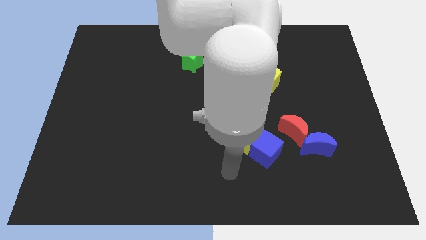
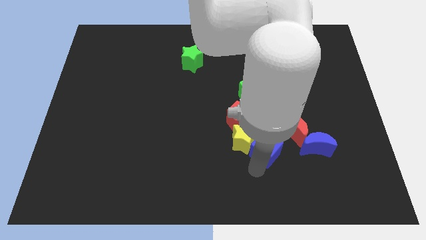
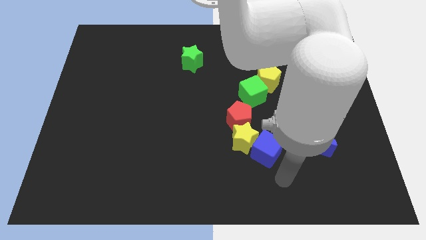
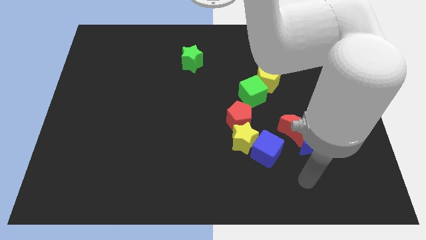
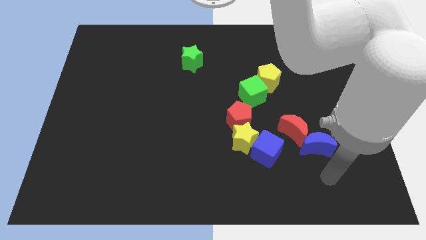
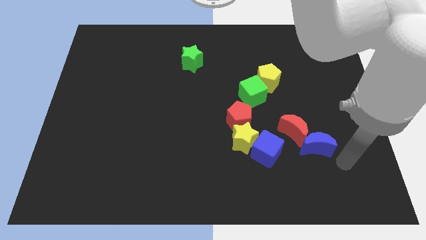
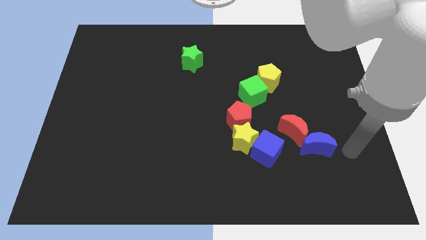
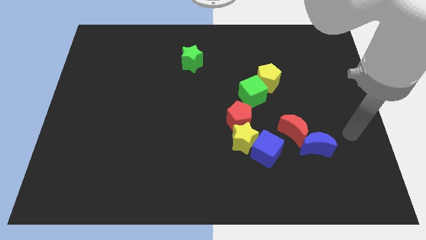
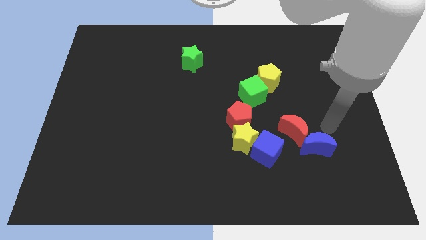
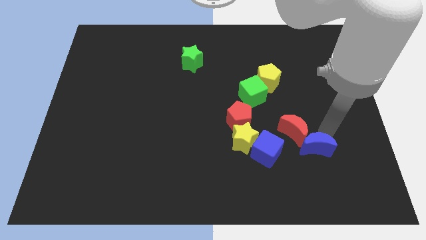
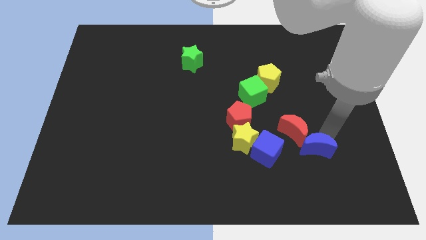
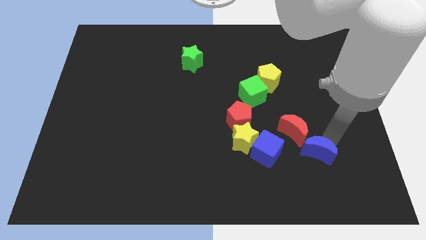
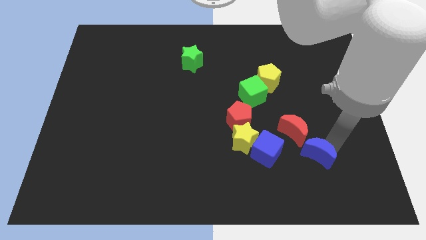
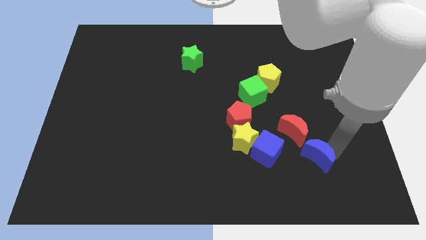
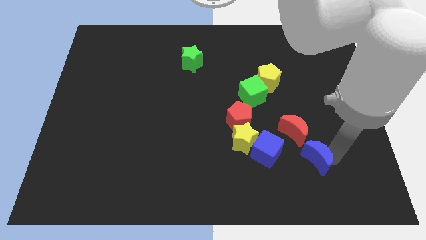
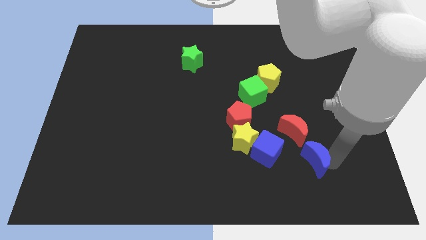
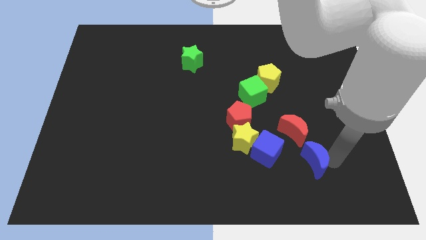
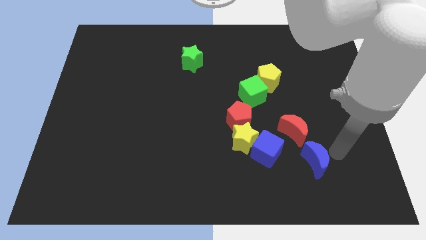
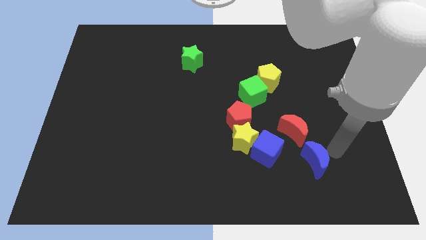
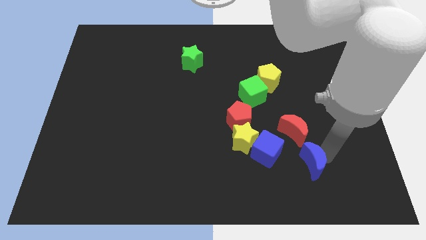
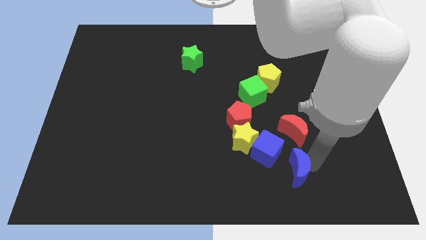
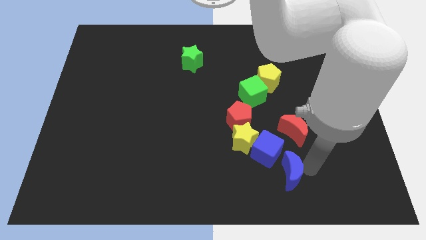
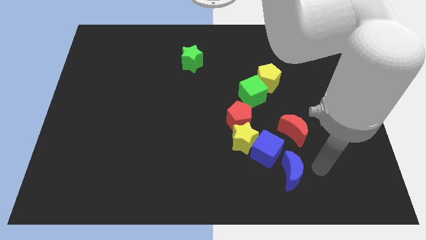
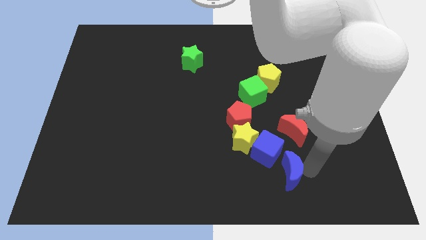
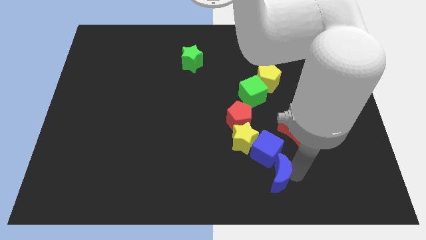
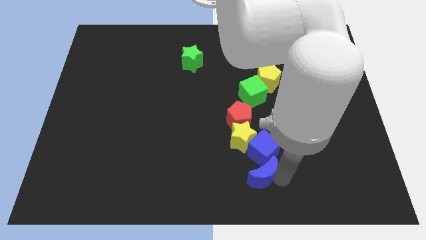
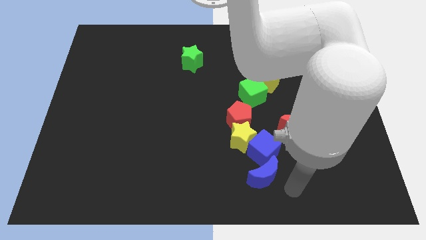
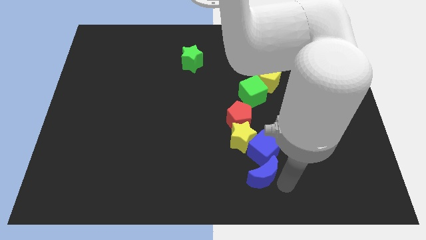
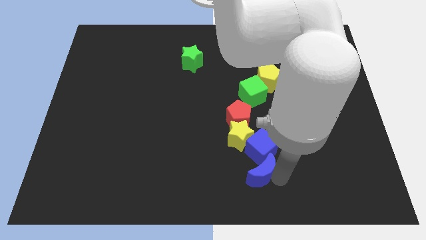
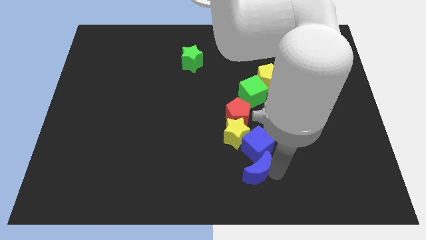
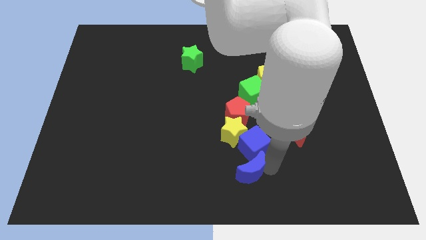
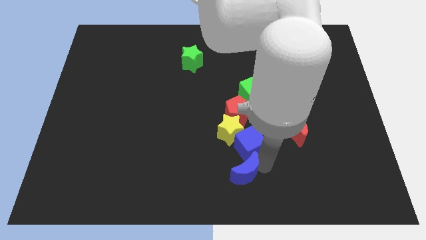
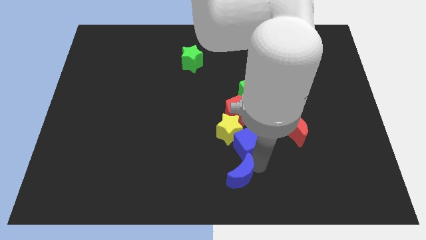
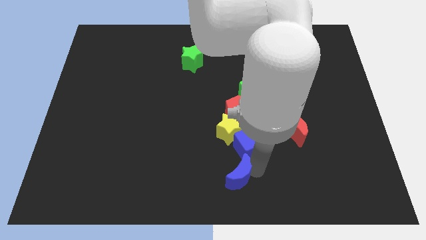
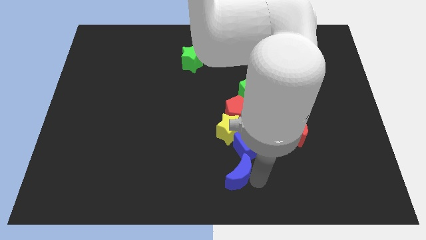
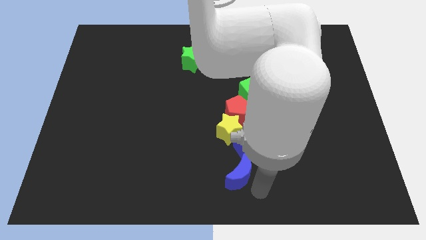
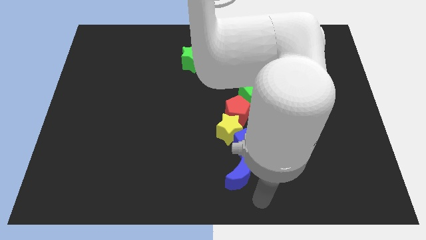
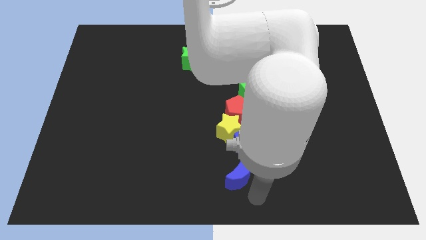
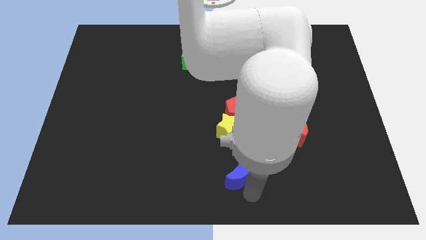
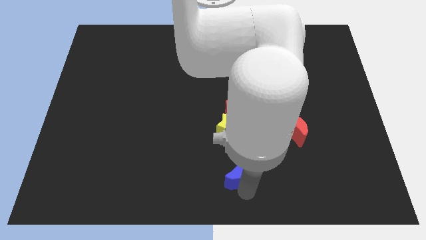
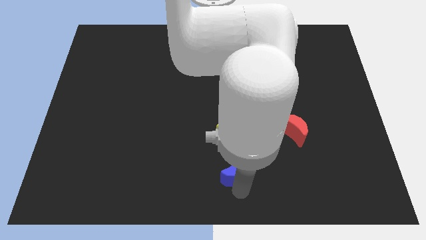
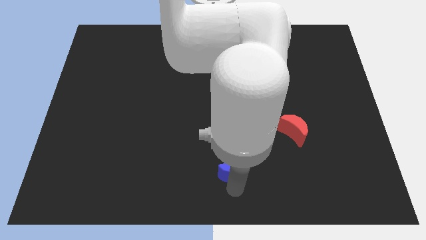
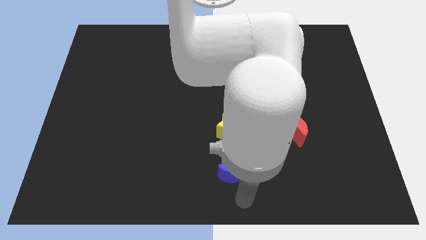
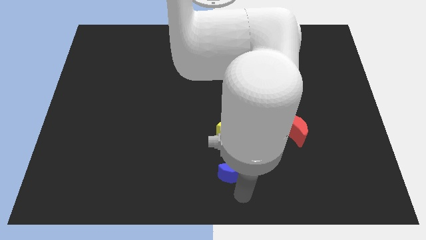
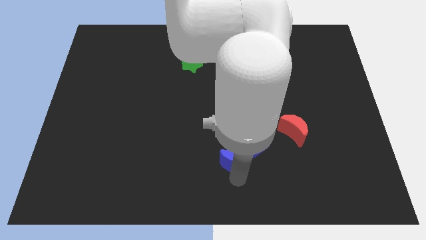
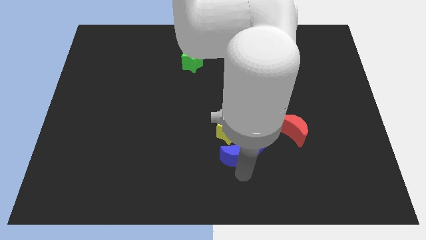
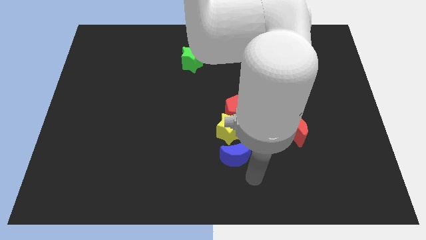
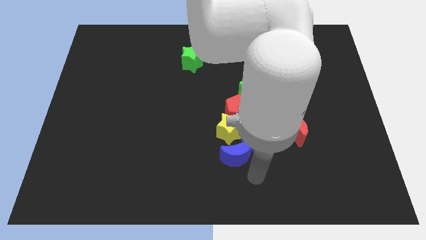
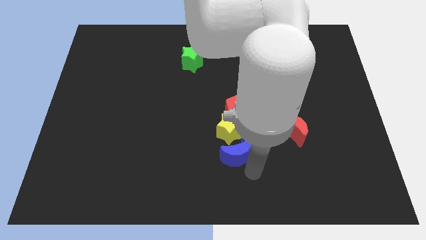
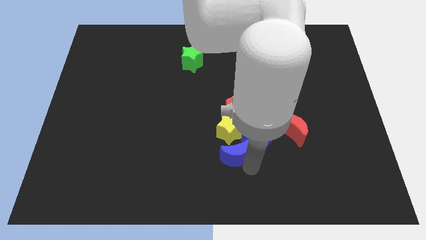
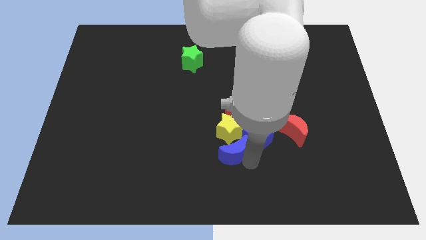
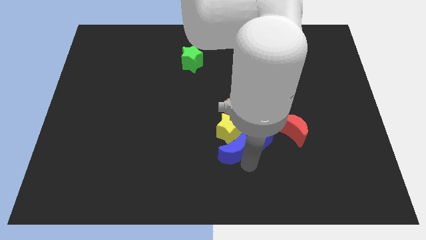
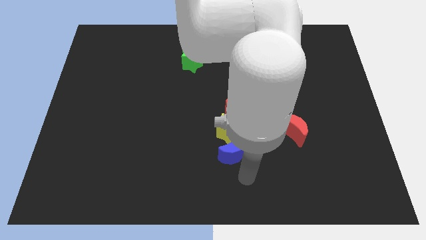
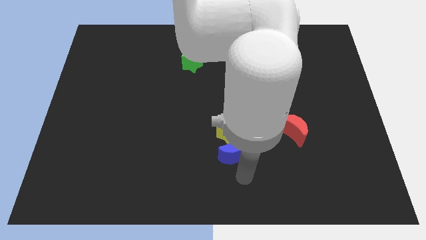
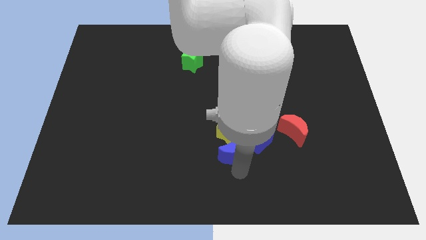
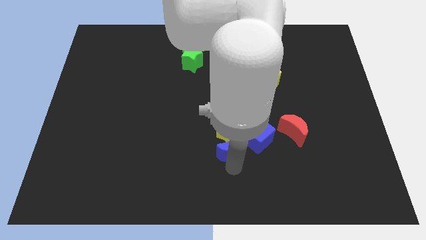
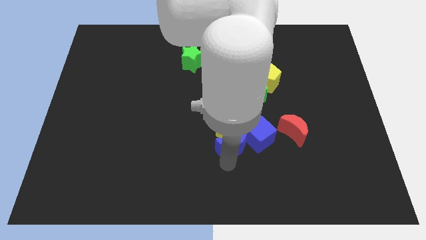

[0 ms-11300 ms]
put the blue moon to the left of the red moon

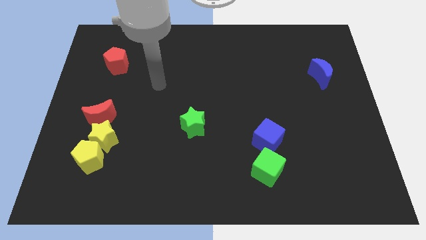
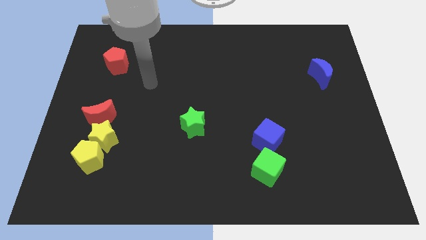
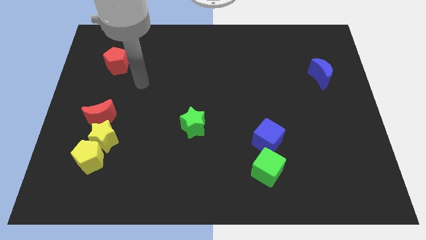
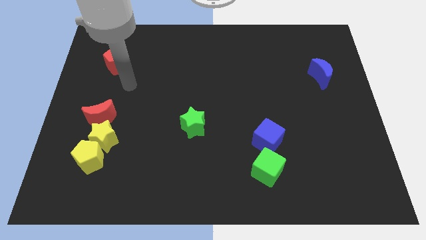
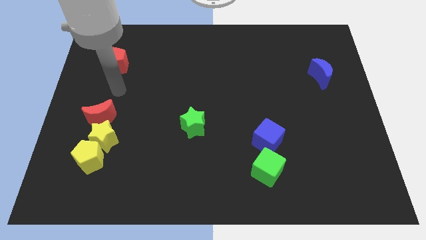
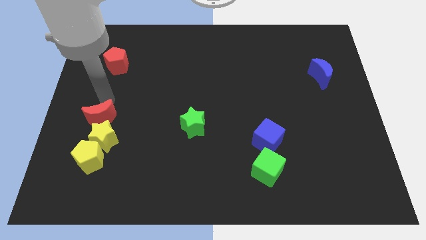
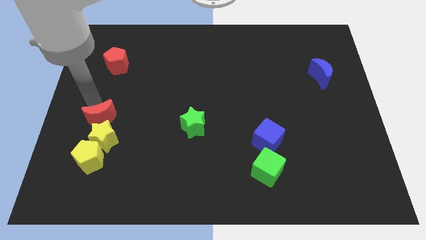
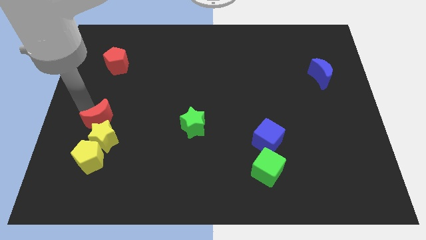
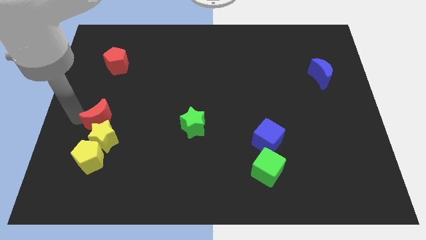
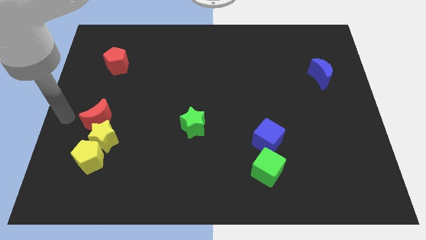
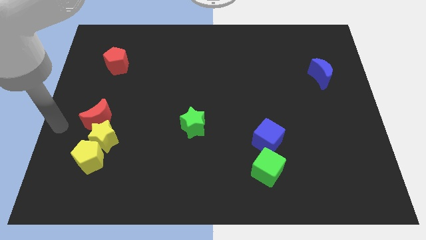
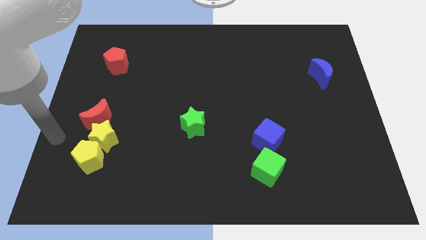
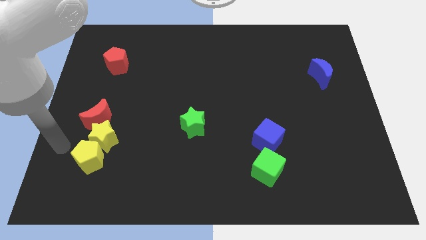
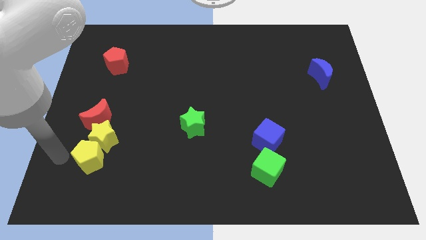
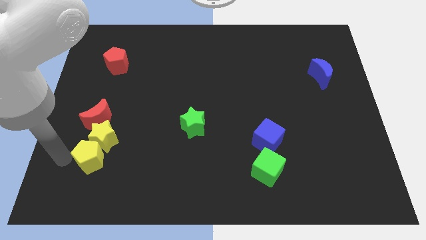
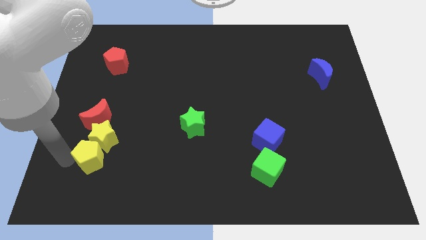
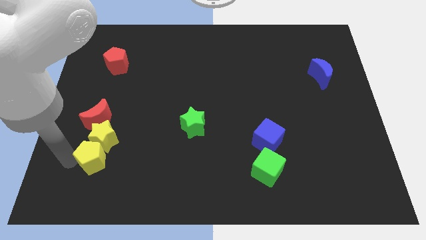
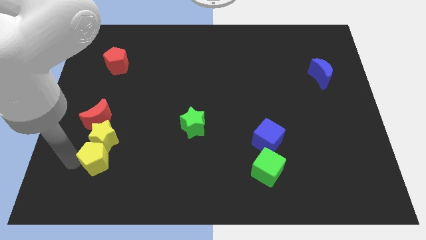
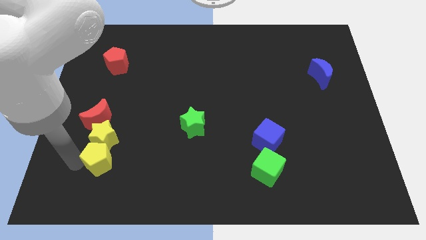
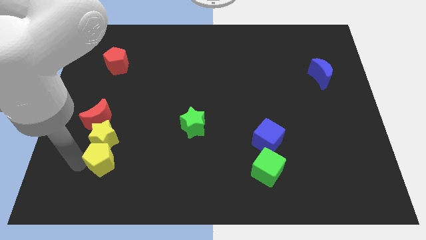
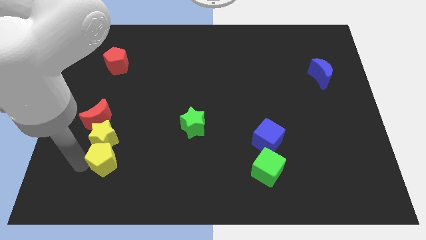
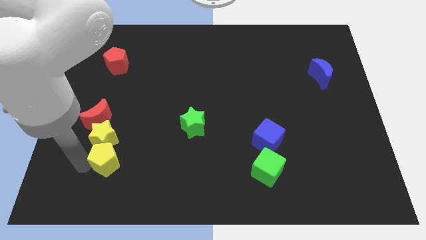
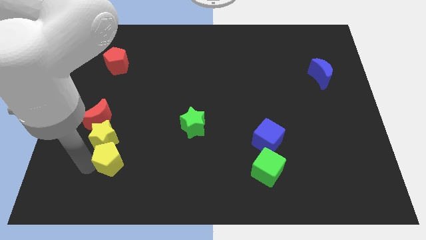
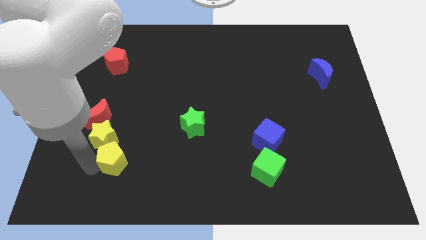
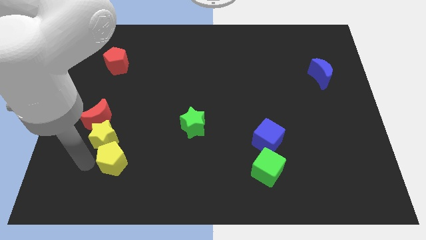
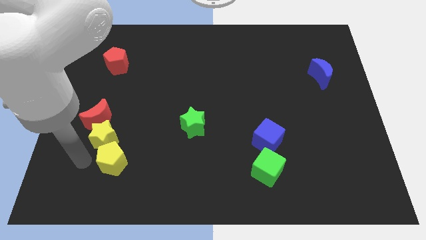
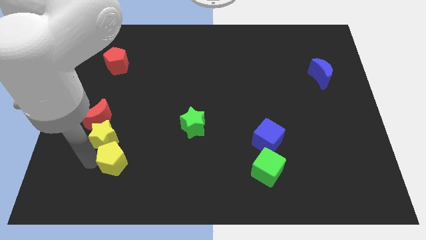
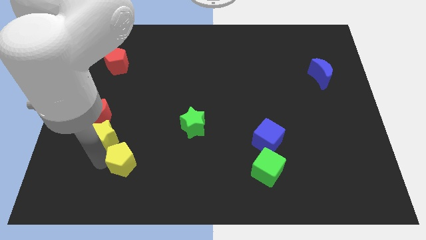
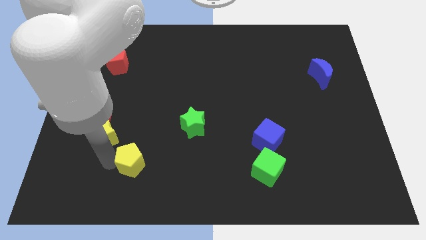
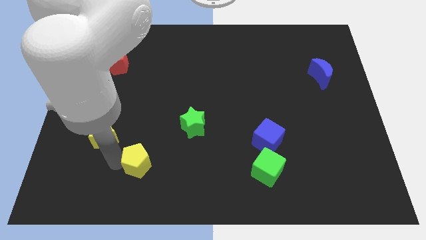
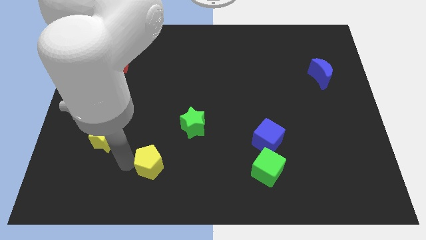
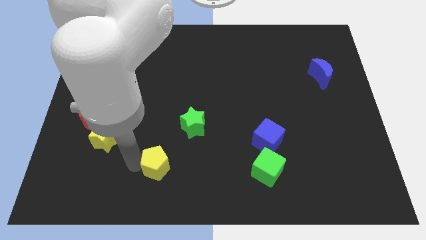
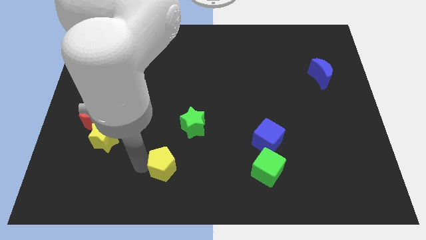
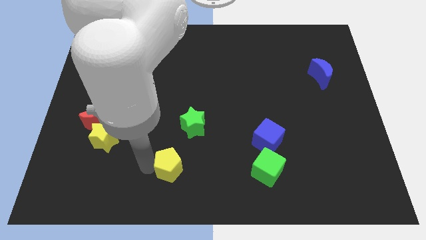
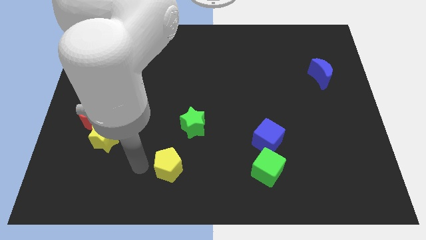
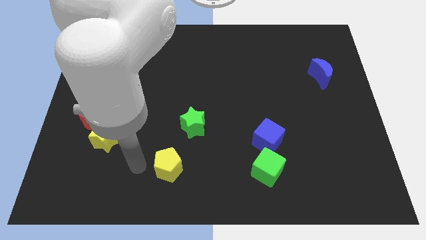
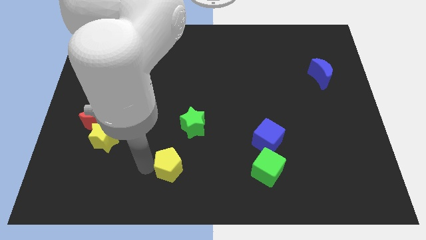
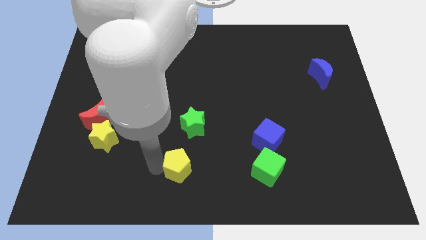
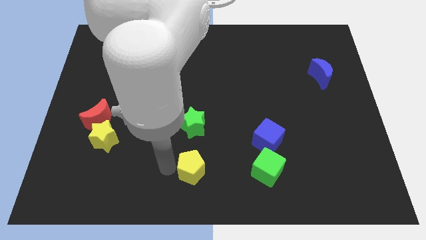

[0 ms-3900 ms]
put the yellow pentagon to the left of the green cube
